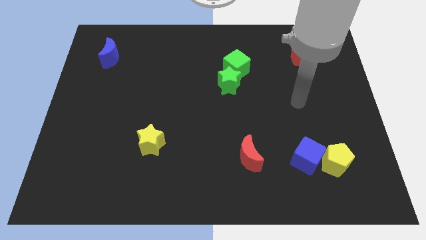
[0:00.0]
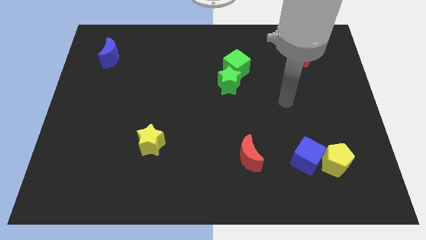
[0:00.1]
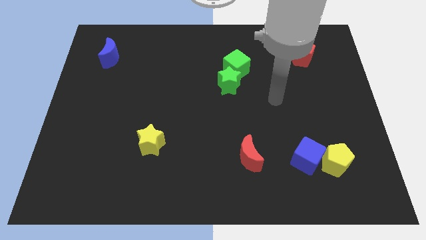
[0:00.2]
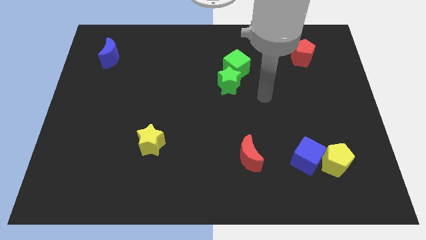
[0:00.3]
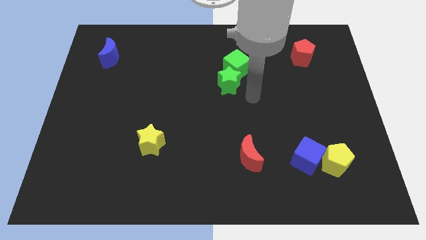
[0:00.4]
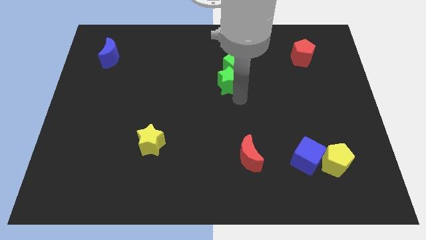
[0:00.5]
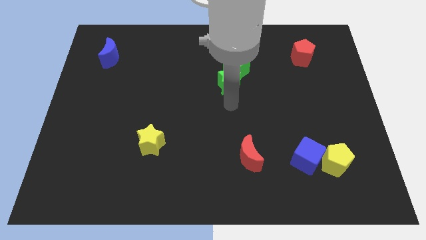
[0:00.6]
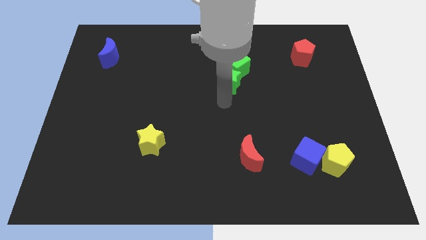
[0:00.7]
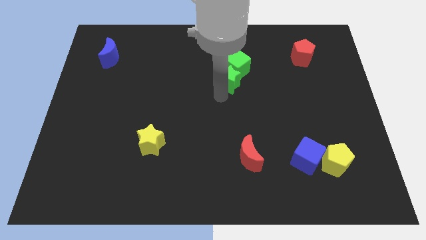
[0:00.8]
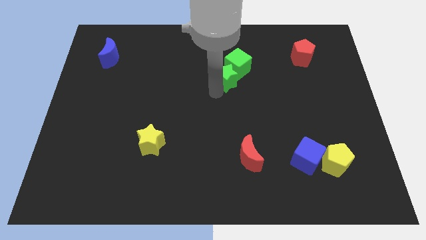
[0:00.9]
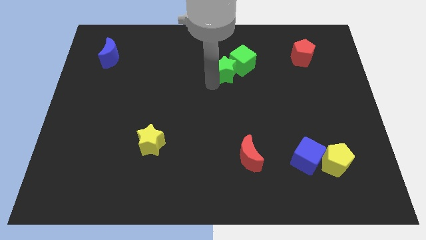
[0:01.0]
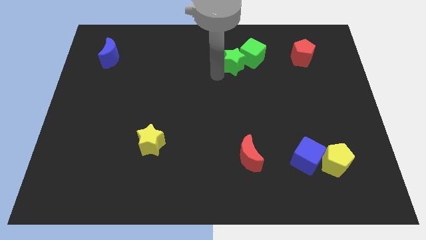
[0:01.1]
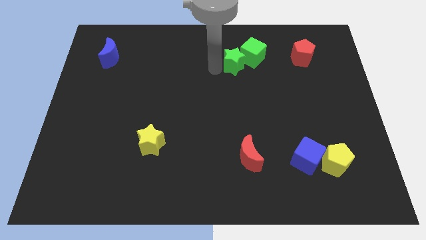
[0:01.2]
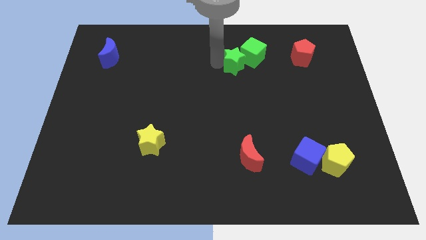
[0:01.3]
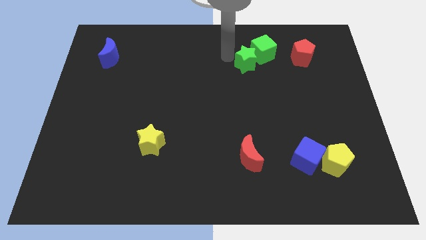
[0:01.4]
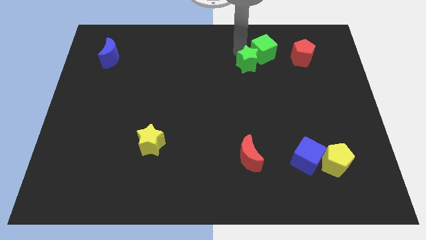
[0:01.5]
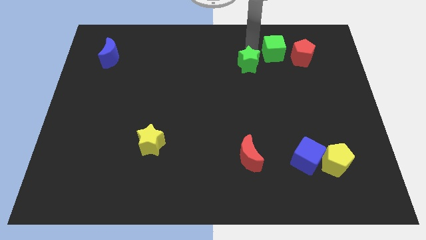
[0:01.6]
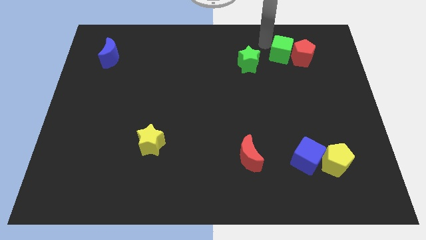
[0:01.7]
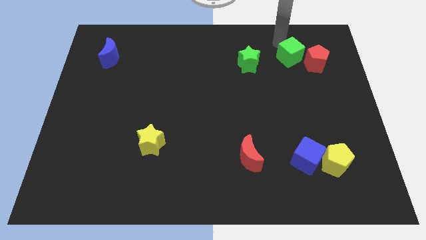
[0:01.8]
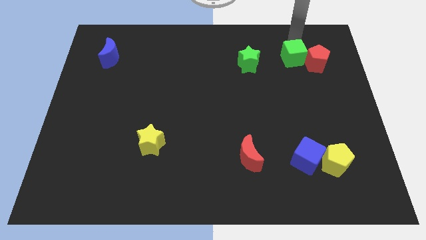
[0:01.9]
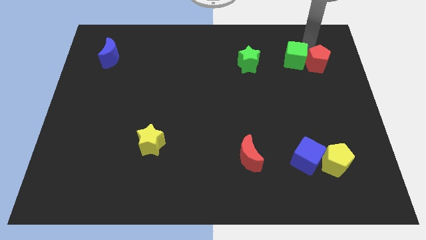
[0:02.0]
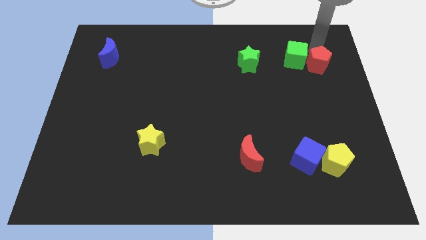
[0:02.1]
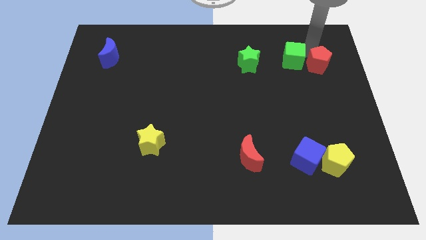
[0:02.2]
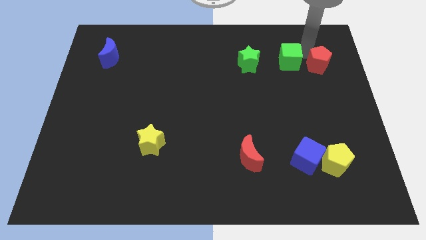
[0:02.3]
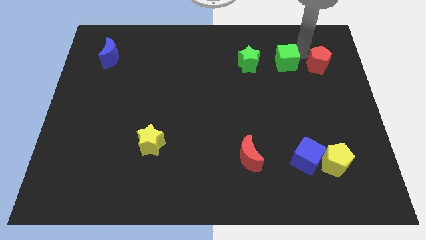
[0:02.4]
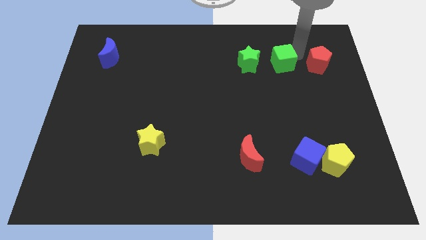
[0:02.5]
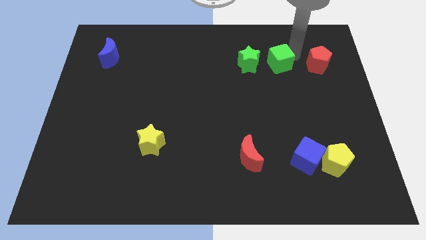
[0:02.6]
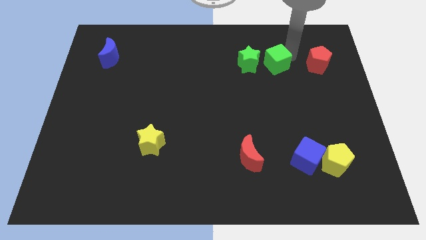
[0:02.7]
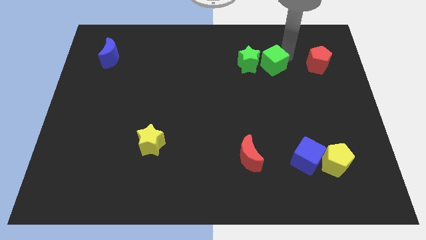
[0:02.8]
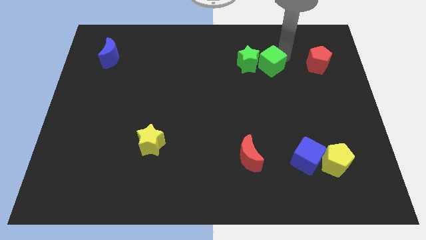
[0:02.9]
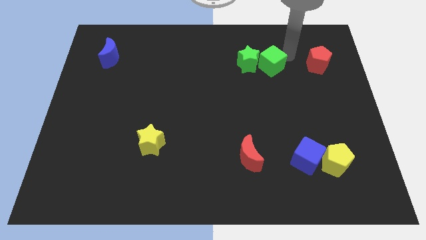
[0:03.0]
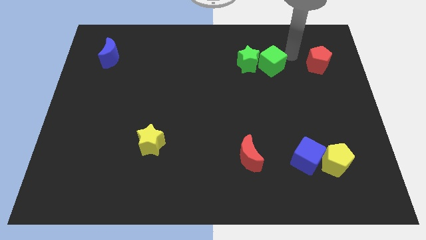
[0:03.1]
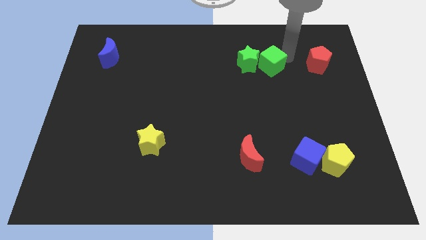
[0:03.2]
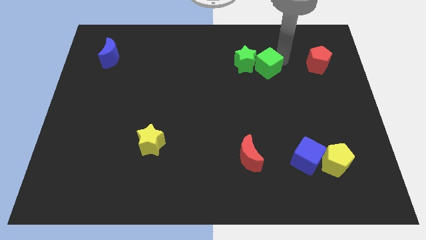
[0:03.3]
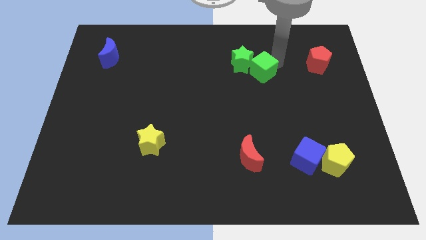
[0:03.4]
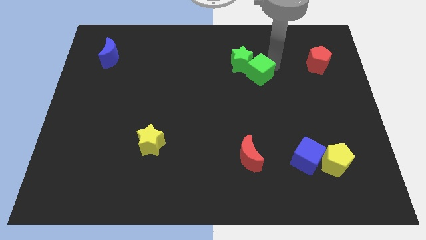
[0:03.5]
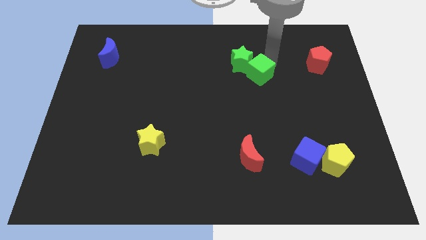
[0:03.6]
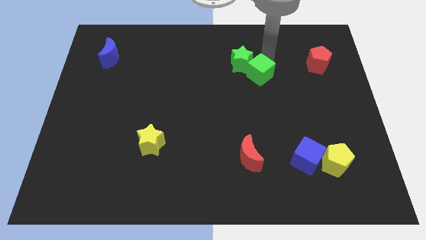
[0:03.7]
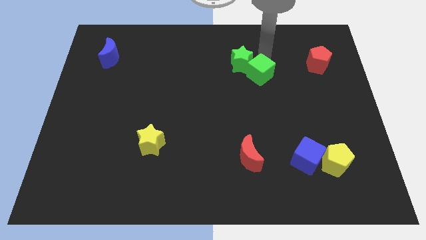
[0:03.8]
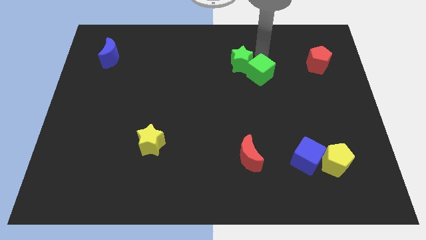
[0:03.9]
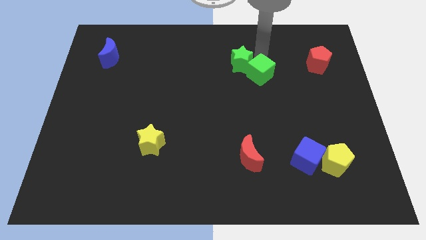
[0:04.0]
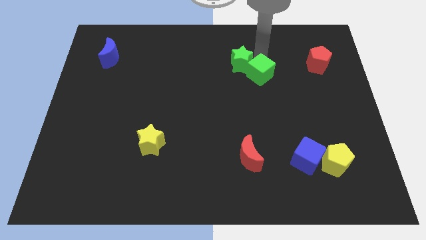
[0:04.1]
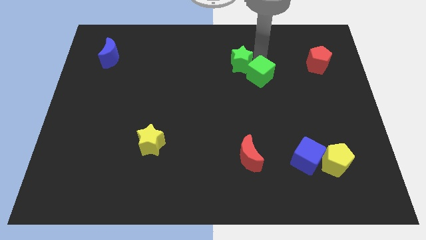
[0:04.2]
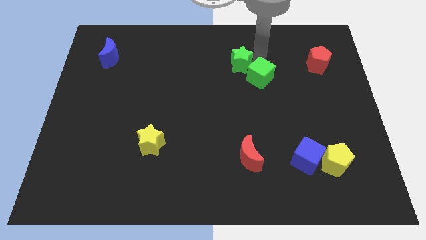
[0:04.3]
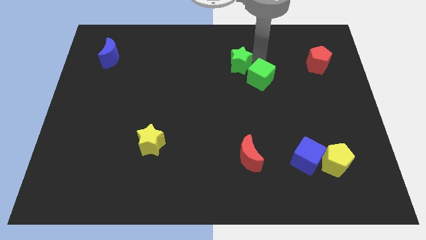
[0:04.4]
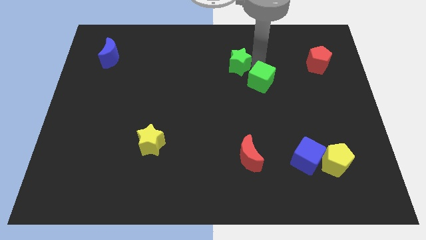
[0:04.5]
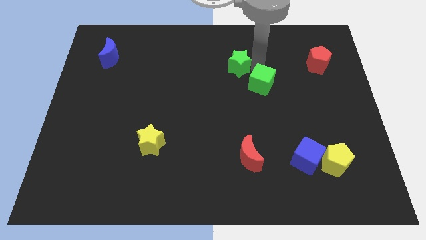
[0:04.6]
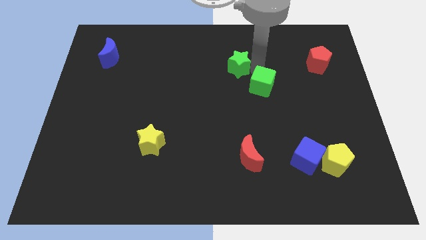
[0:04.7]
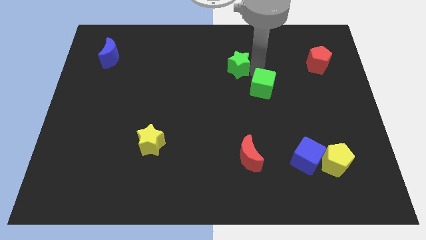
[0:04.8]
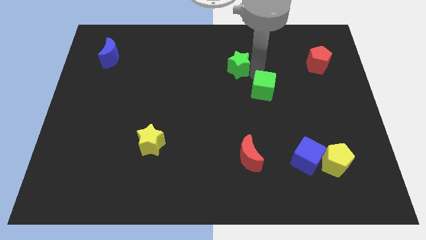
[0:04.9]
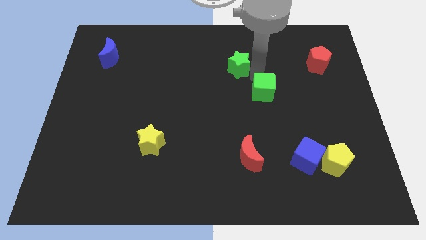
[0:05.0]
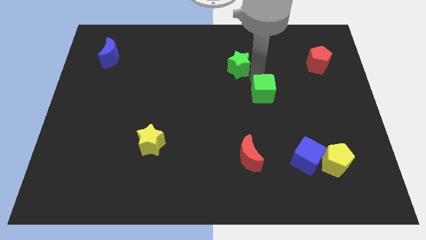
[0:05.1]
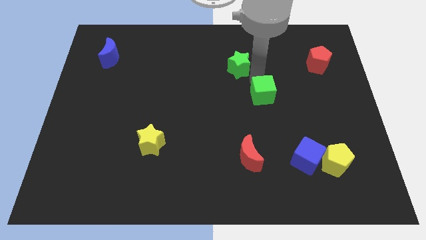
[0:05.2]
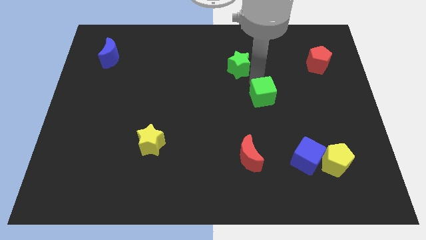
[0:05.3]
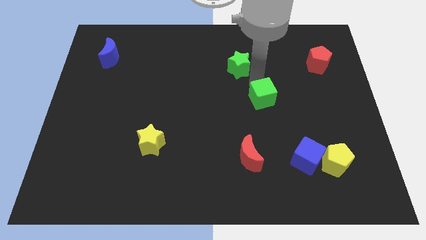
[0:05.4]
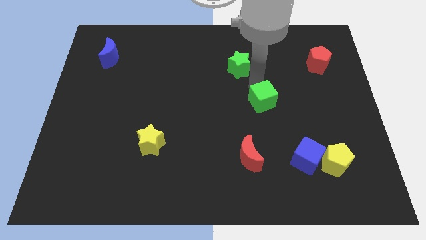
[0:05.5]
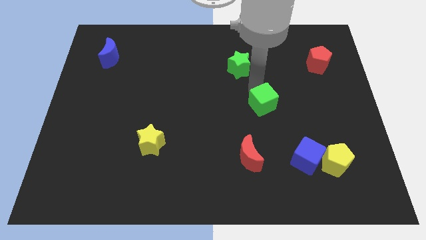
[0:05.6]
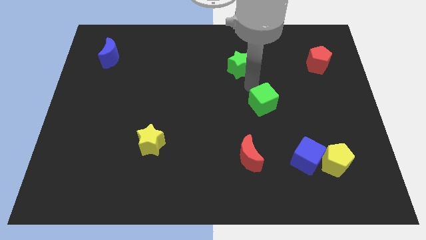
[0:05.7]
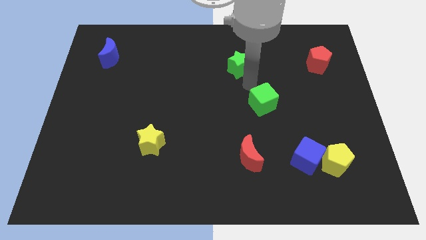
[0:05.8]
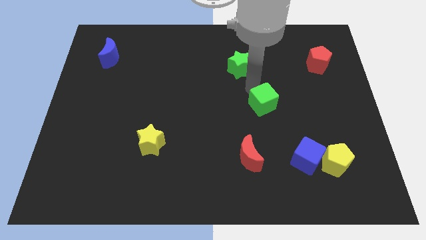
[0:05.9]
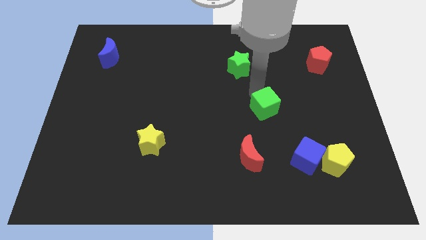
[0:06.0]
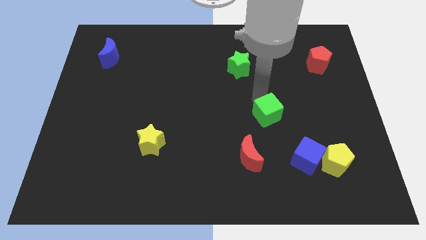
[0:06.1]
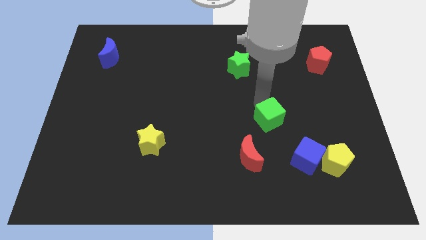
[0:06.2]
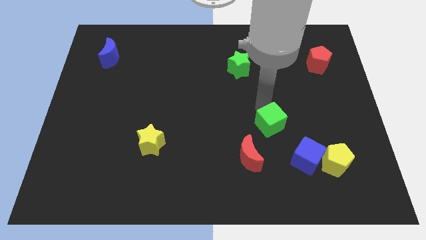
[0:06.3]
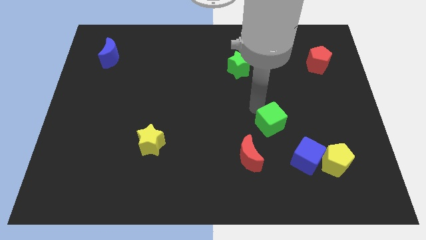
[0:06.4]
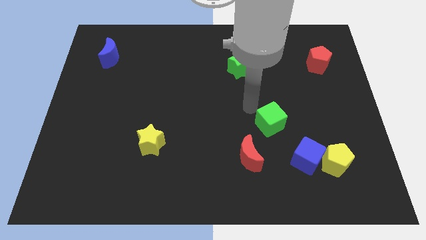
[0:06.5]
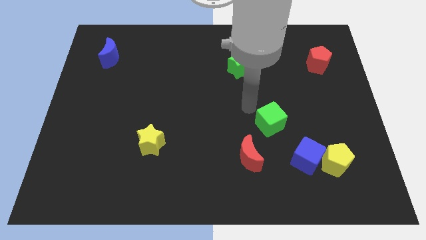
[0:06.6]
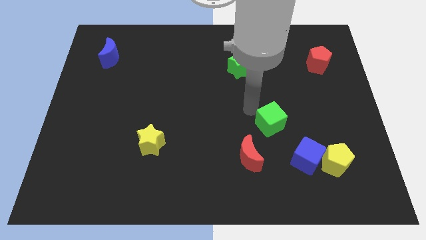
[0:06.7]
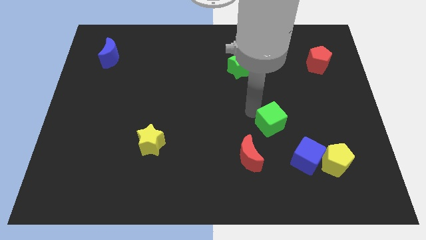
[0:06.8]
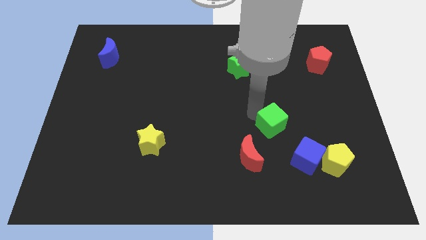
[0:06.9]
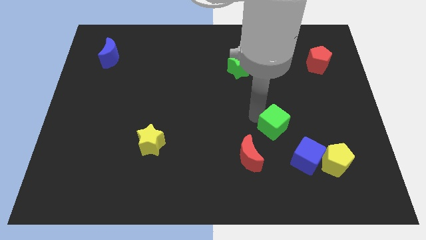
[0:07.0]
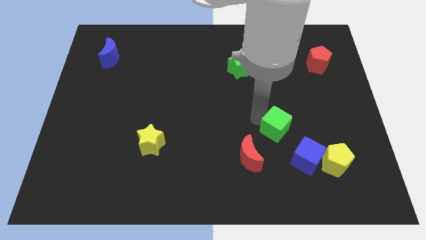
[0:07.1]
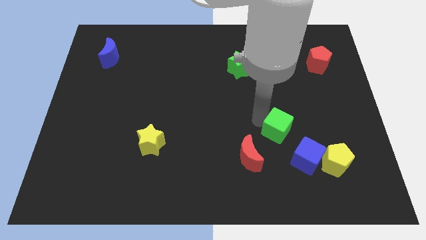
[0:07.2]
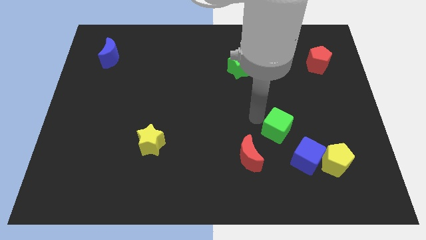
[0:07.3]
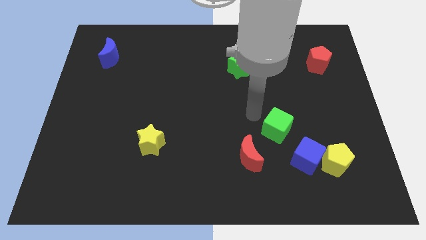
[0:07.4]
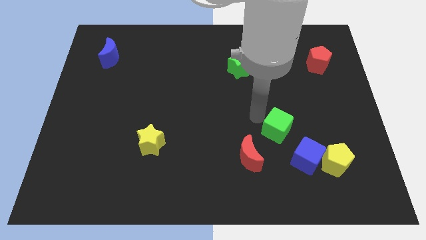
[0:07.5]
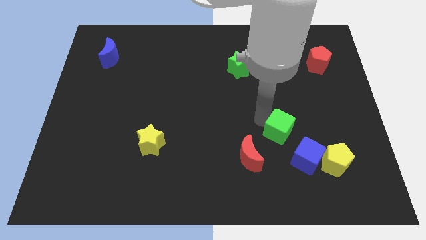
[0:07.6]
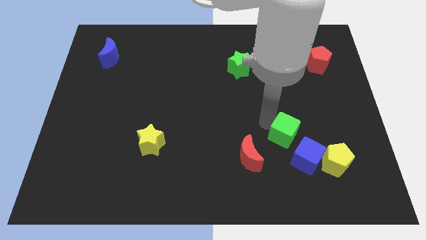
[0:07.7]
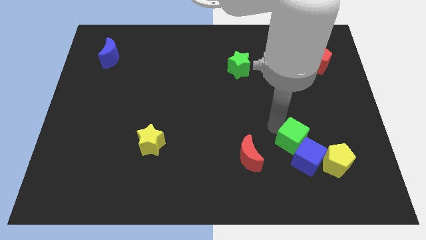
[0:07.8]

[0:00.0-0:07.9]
slide the green cube next to the blue cube
